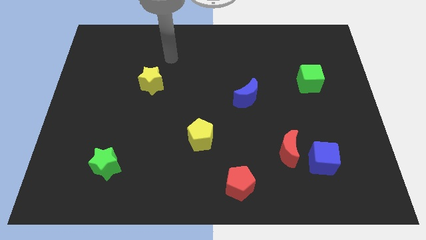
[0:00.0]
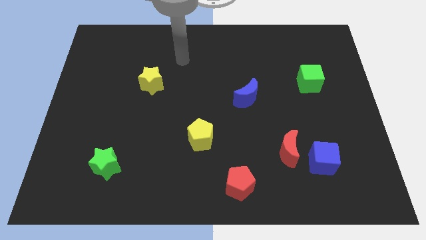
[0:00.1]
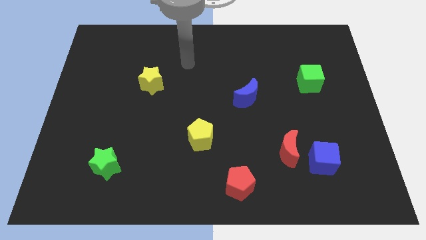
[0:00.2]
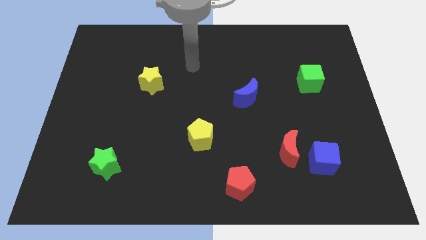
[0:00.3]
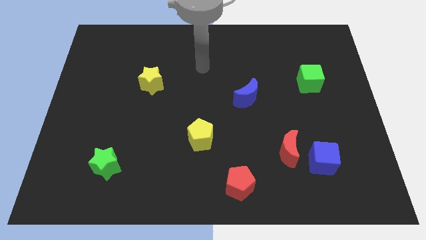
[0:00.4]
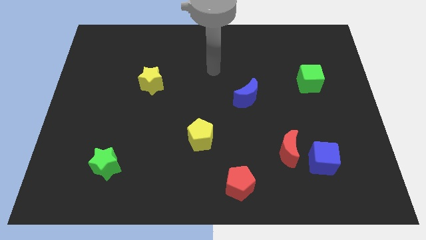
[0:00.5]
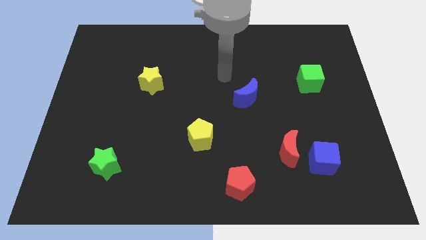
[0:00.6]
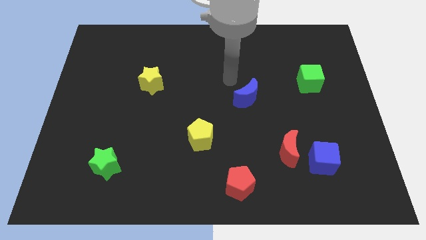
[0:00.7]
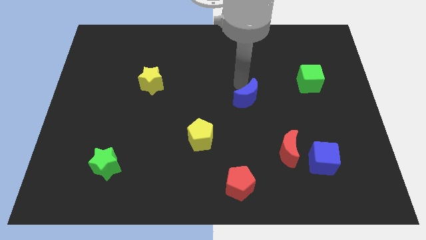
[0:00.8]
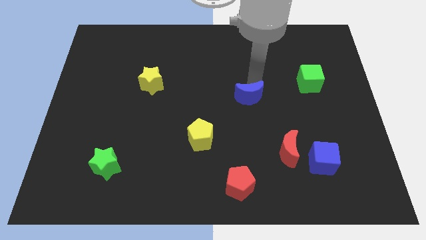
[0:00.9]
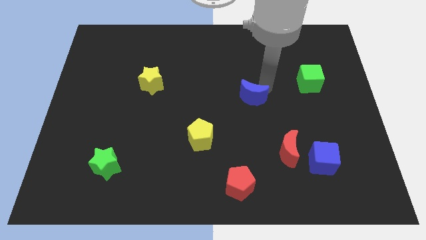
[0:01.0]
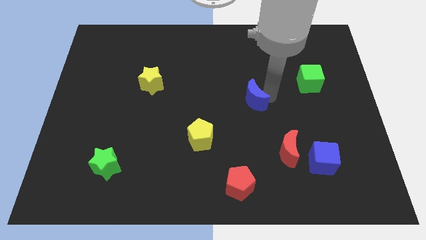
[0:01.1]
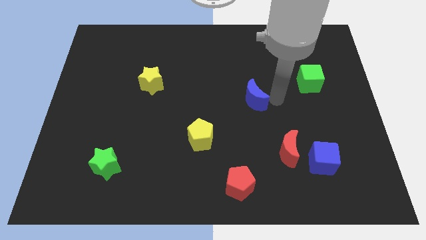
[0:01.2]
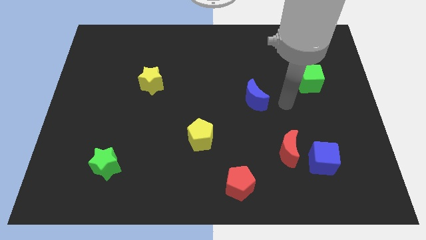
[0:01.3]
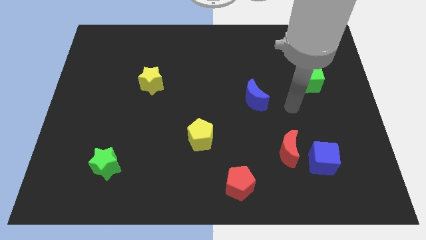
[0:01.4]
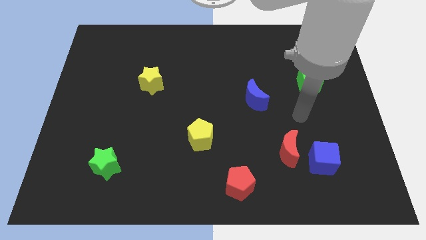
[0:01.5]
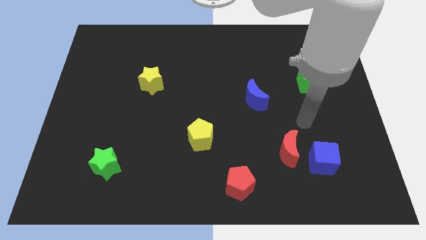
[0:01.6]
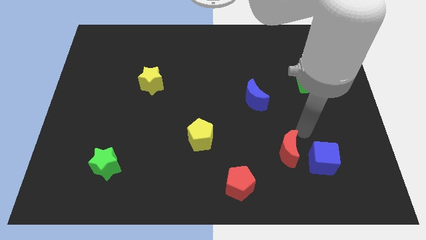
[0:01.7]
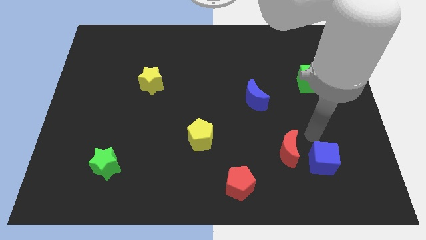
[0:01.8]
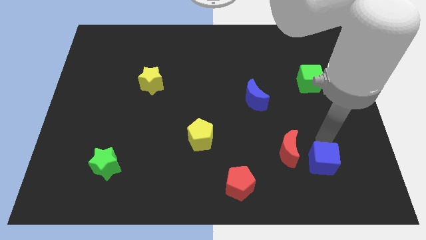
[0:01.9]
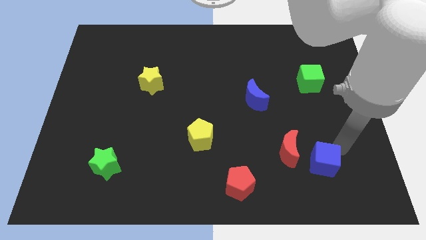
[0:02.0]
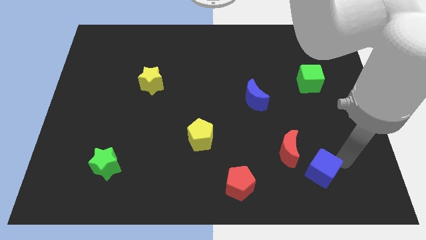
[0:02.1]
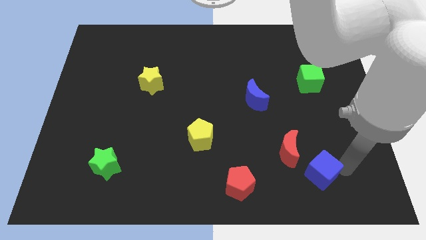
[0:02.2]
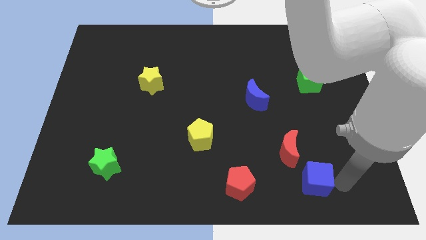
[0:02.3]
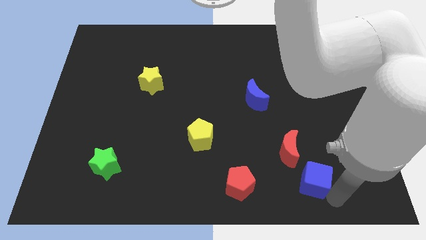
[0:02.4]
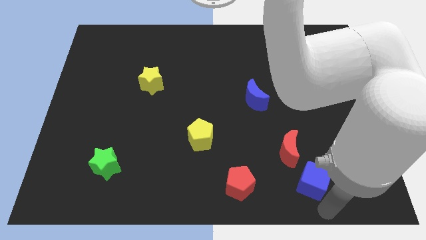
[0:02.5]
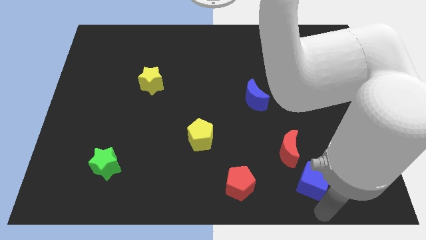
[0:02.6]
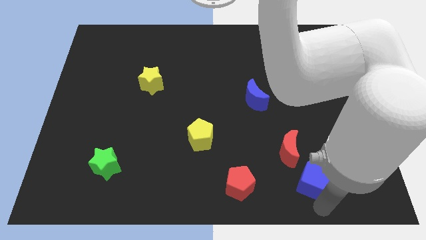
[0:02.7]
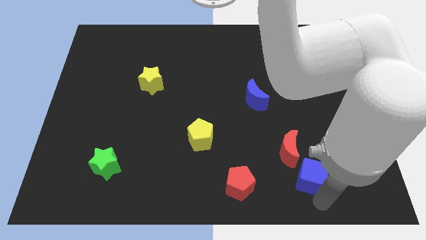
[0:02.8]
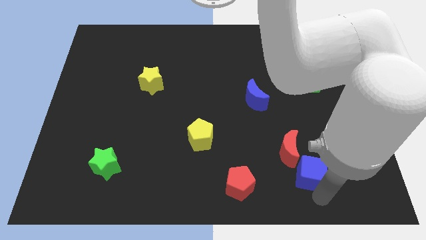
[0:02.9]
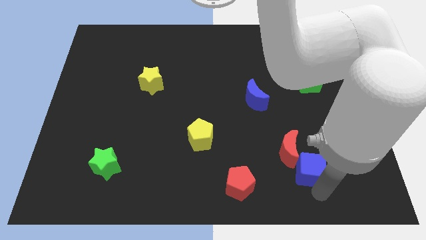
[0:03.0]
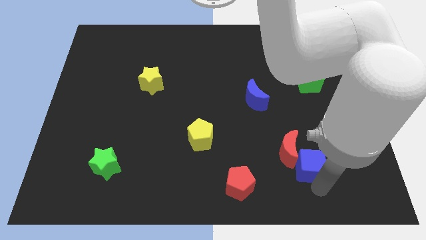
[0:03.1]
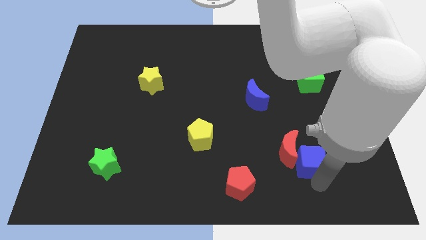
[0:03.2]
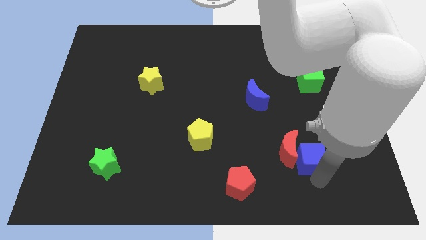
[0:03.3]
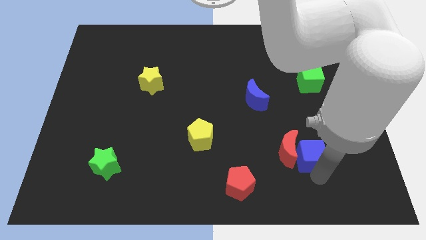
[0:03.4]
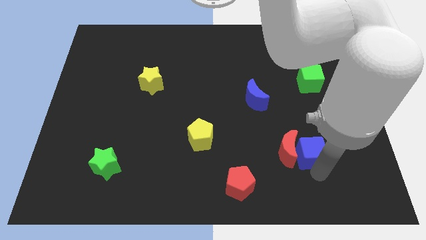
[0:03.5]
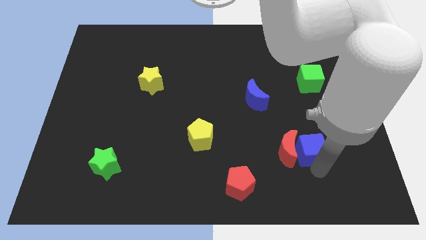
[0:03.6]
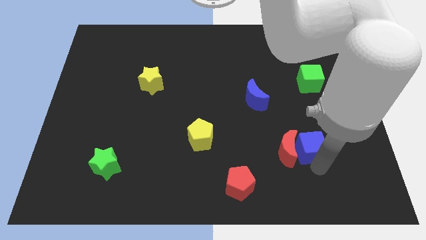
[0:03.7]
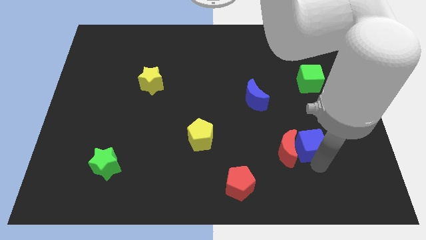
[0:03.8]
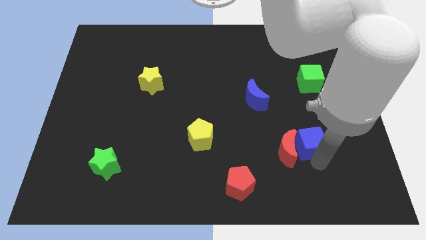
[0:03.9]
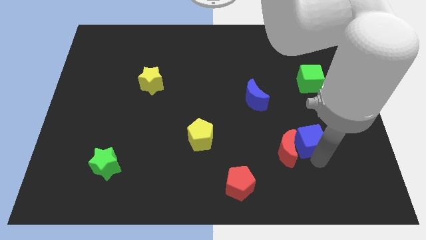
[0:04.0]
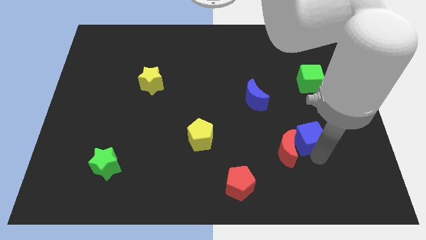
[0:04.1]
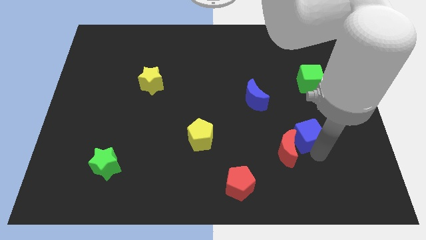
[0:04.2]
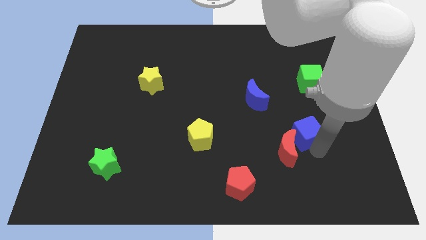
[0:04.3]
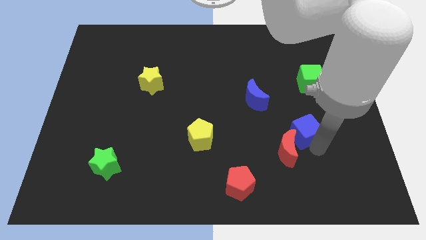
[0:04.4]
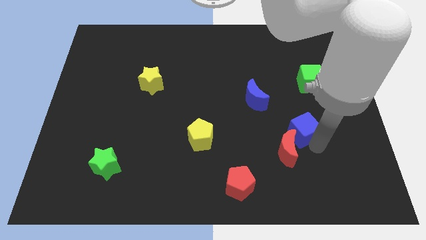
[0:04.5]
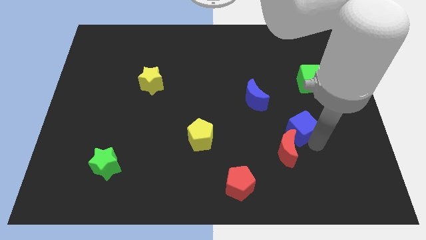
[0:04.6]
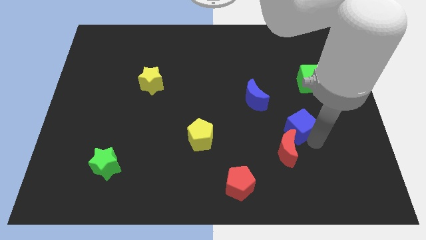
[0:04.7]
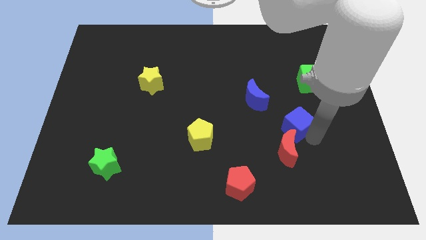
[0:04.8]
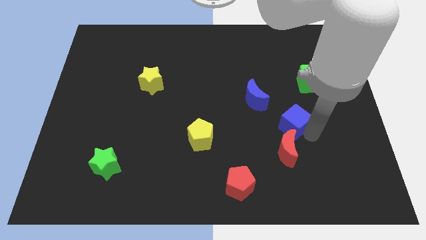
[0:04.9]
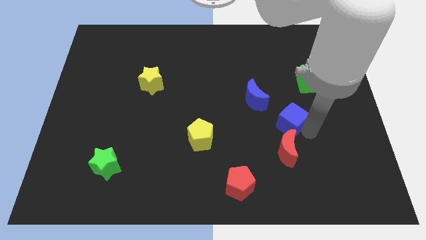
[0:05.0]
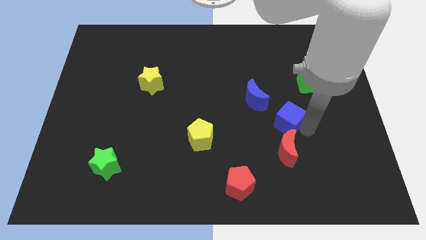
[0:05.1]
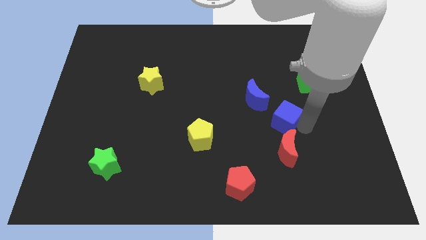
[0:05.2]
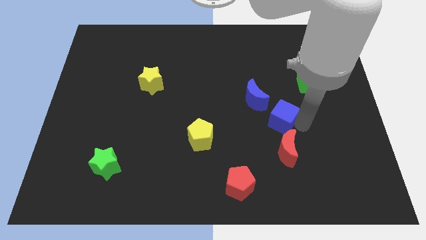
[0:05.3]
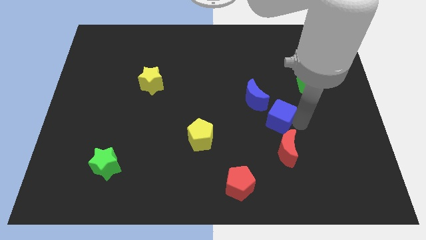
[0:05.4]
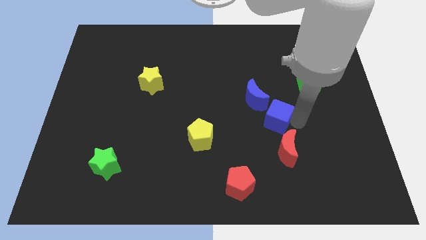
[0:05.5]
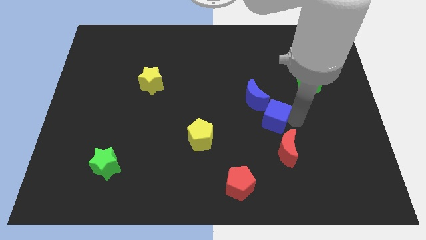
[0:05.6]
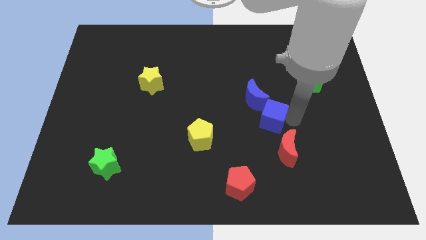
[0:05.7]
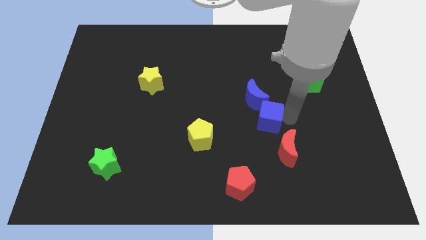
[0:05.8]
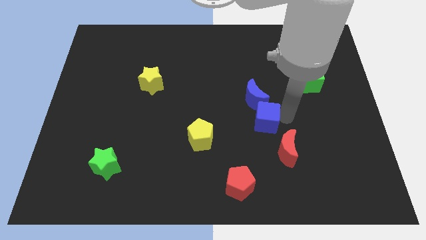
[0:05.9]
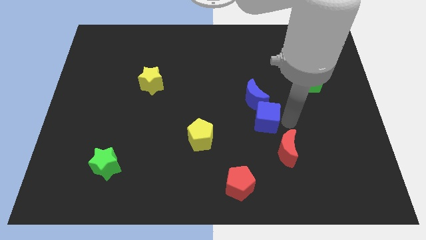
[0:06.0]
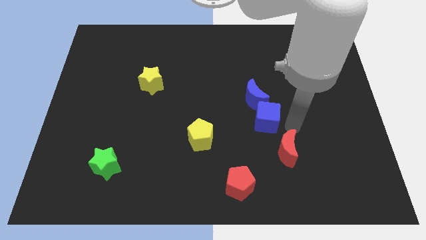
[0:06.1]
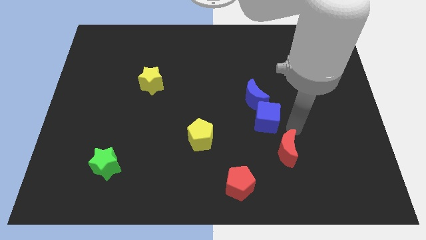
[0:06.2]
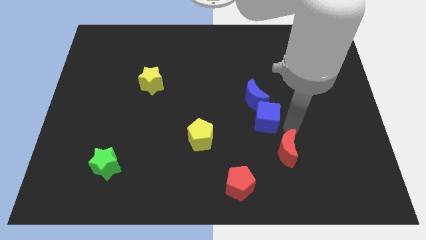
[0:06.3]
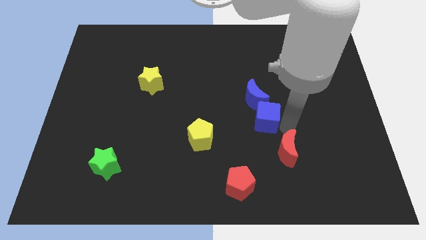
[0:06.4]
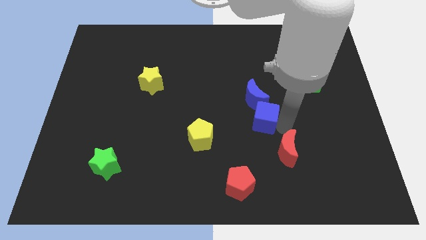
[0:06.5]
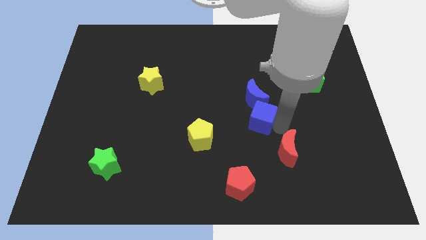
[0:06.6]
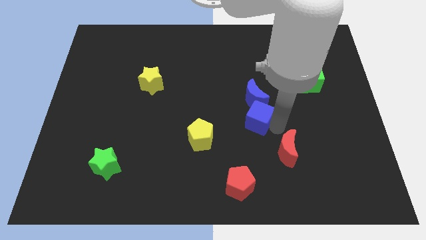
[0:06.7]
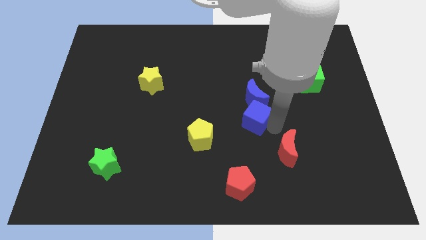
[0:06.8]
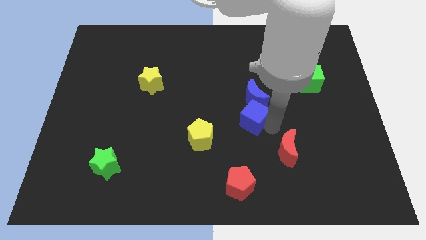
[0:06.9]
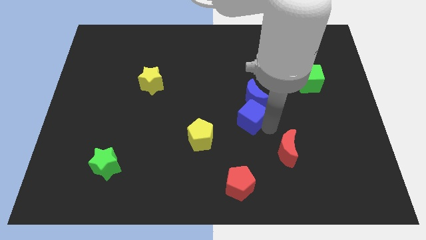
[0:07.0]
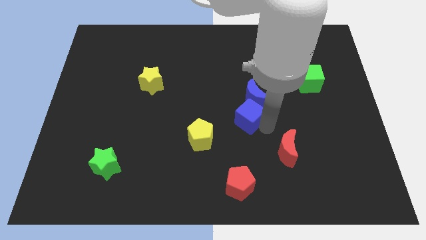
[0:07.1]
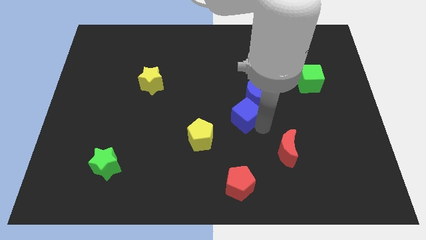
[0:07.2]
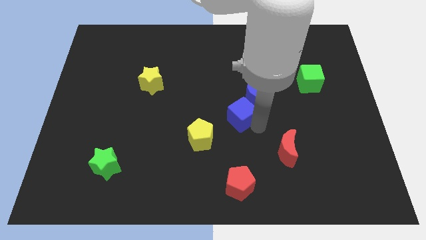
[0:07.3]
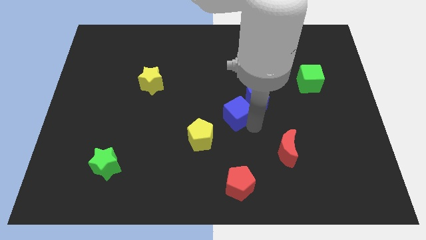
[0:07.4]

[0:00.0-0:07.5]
move the blue cube upwards and to the left diagonally

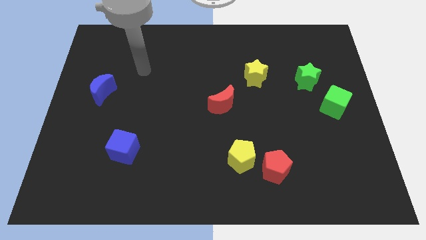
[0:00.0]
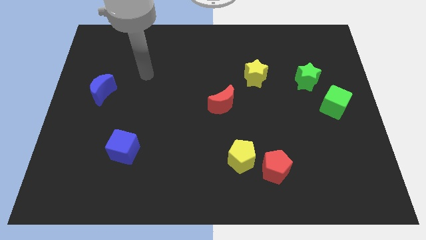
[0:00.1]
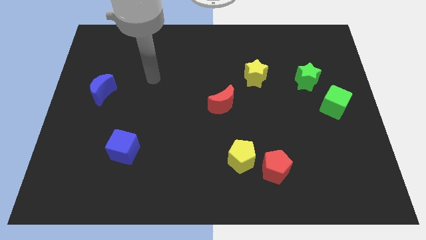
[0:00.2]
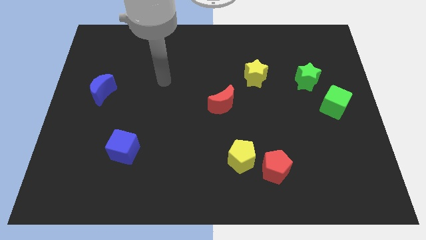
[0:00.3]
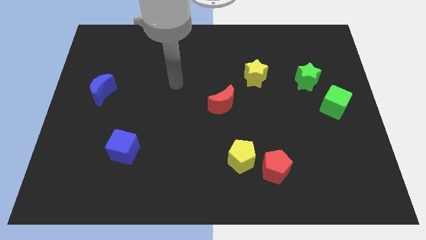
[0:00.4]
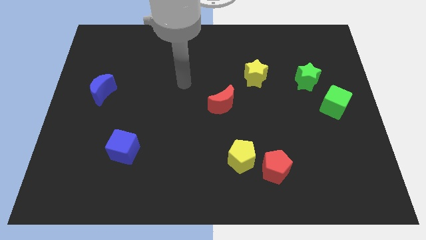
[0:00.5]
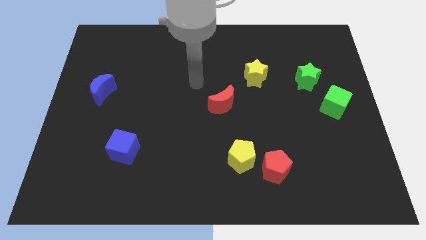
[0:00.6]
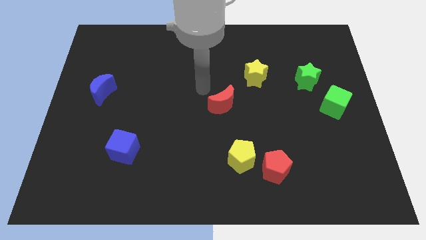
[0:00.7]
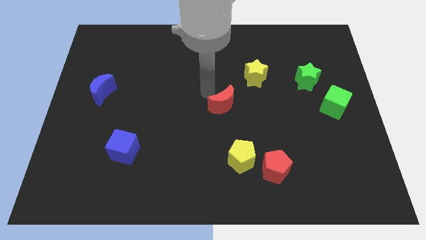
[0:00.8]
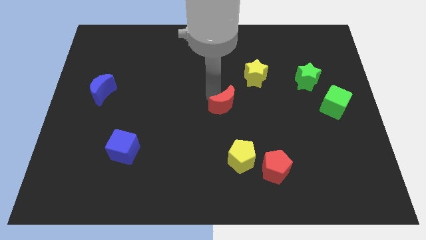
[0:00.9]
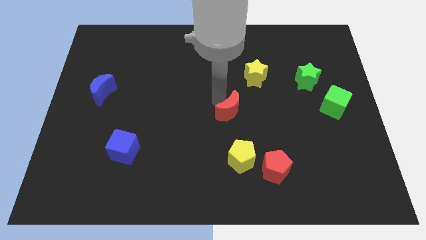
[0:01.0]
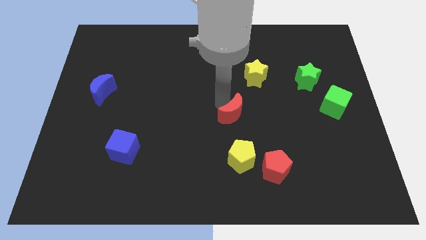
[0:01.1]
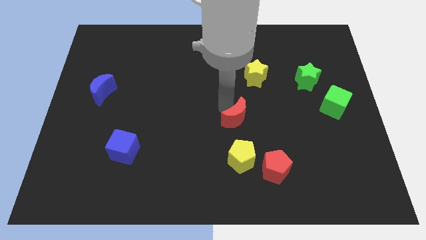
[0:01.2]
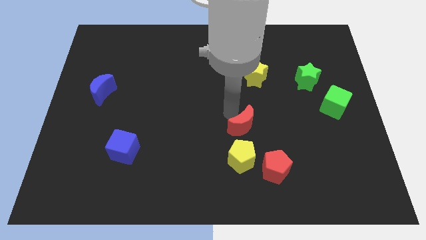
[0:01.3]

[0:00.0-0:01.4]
slightly push the red moon down and to the right diagonally
